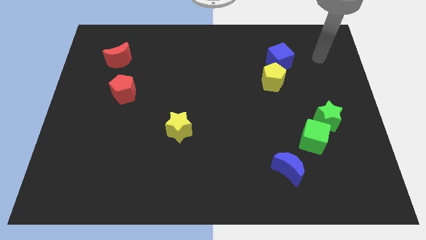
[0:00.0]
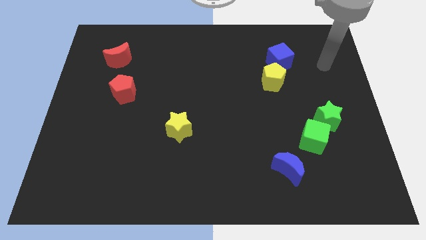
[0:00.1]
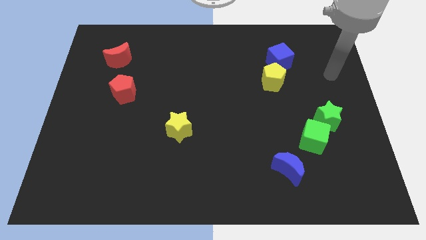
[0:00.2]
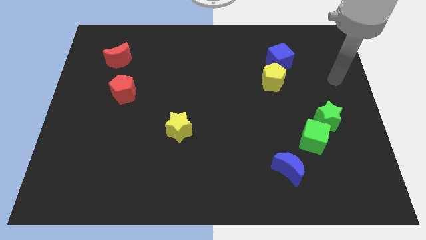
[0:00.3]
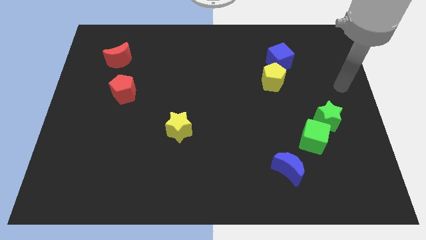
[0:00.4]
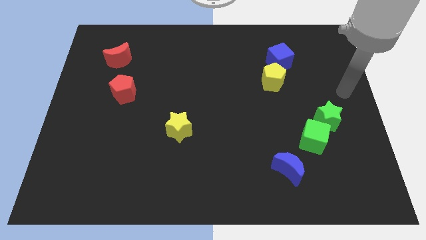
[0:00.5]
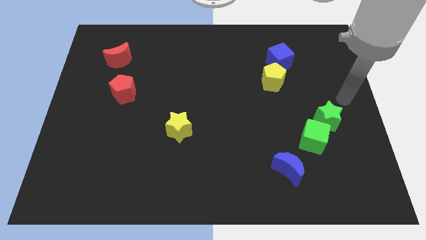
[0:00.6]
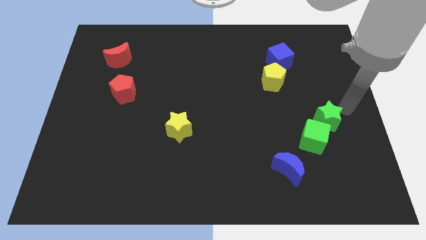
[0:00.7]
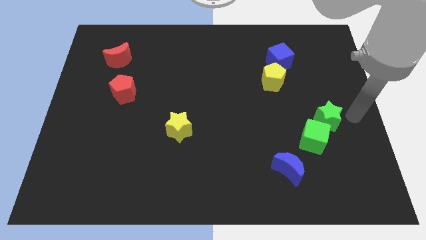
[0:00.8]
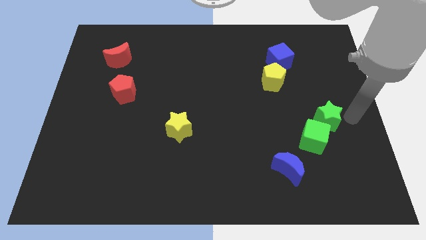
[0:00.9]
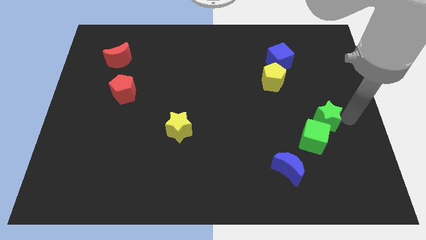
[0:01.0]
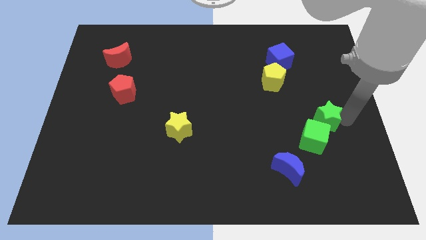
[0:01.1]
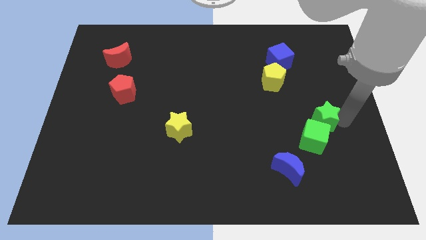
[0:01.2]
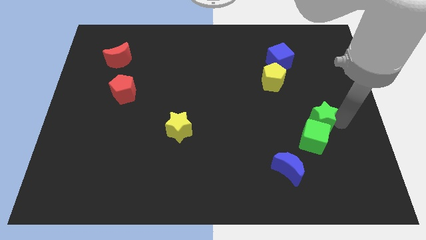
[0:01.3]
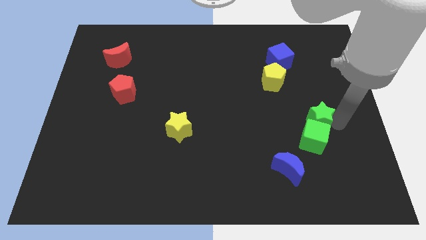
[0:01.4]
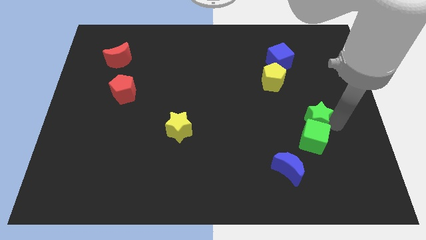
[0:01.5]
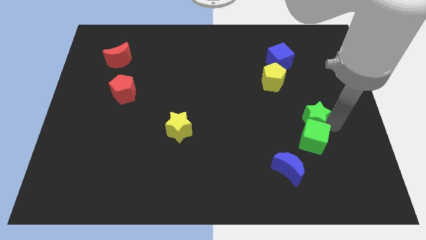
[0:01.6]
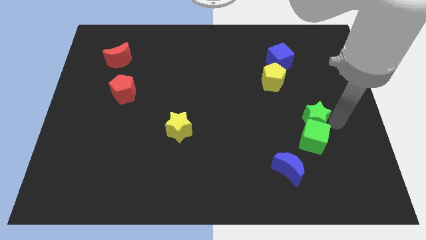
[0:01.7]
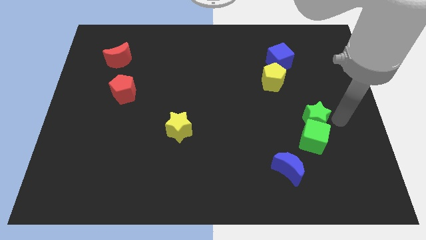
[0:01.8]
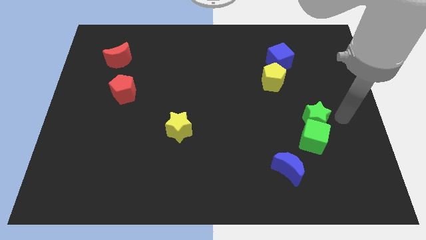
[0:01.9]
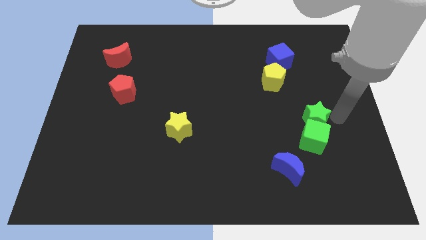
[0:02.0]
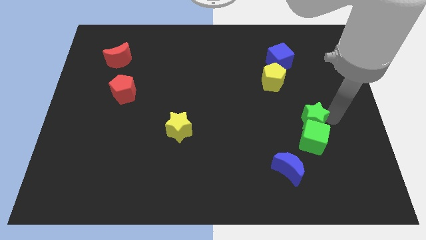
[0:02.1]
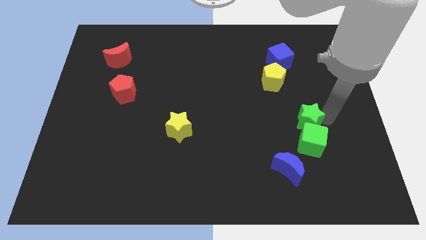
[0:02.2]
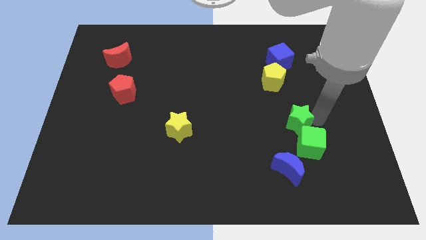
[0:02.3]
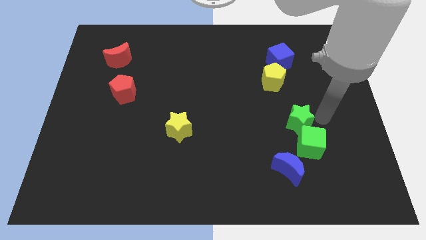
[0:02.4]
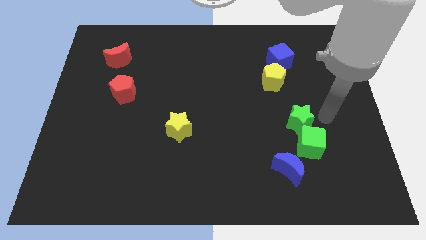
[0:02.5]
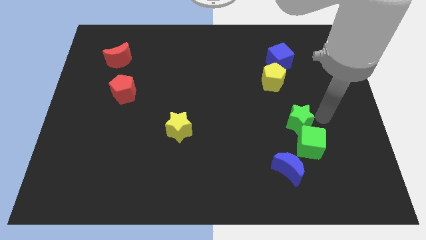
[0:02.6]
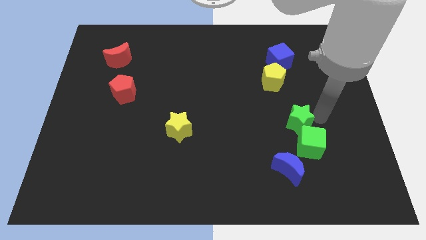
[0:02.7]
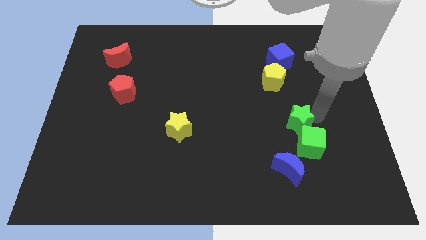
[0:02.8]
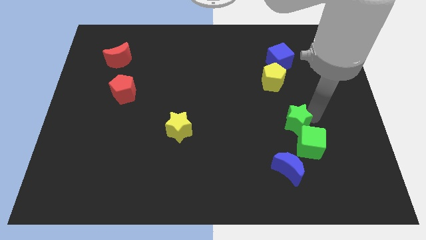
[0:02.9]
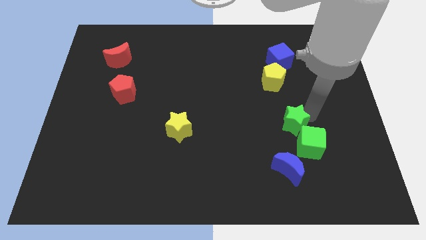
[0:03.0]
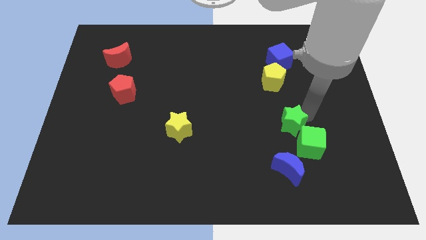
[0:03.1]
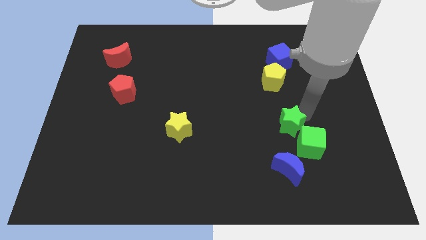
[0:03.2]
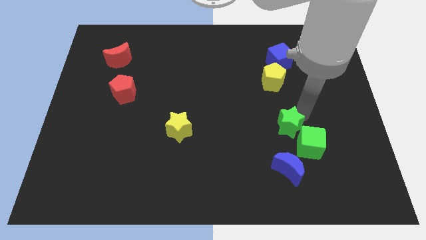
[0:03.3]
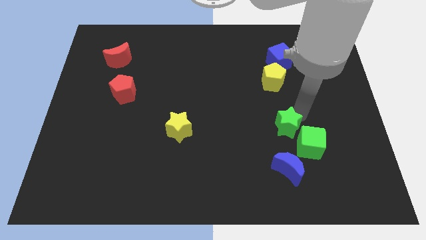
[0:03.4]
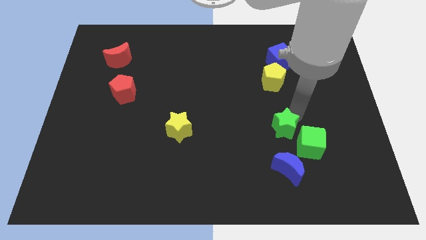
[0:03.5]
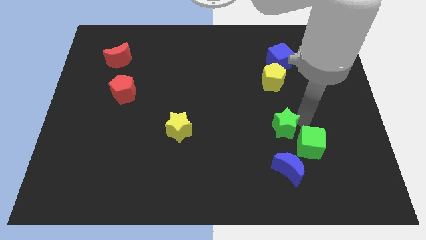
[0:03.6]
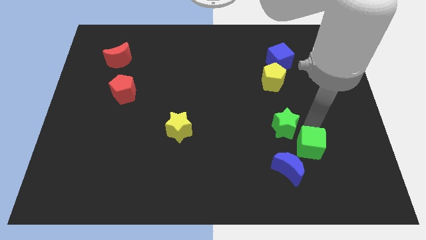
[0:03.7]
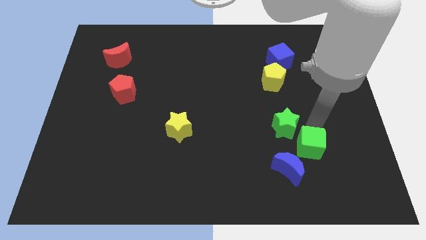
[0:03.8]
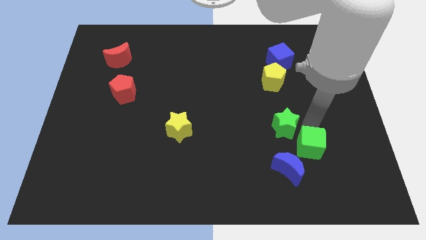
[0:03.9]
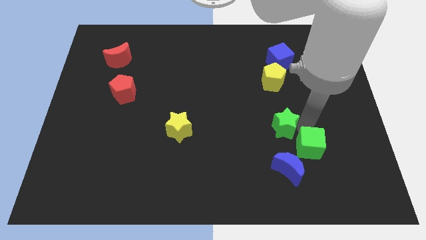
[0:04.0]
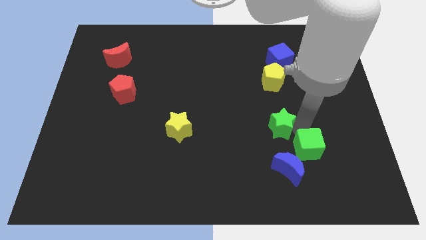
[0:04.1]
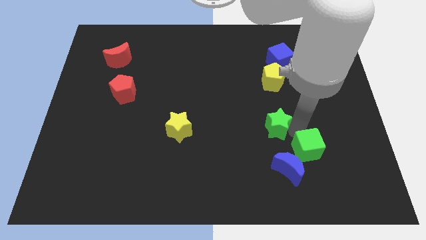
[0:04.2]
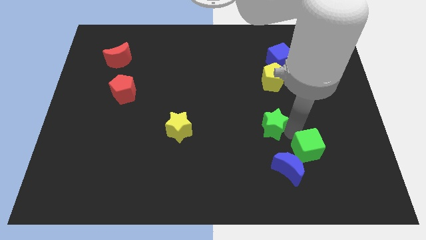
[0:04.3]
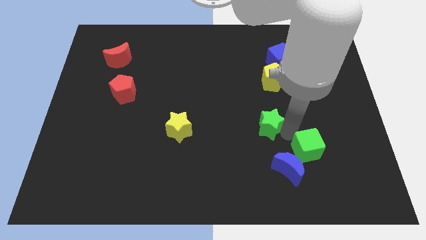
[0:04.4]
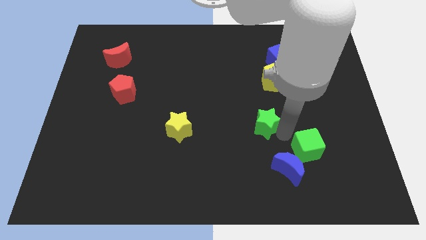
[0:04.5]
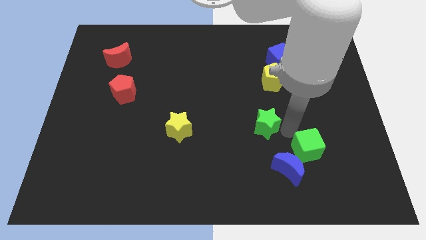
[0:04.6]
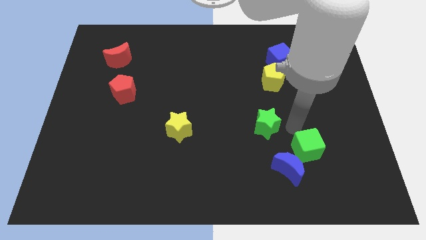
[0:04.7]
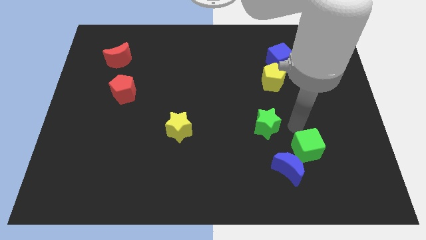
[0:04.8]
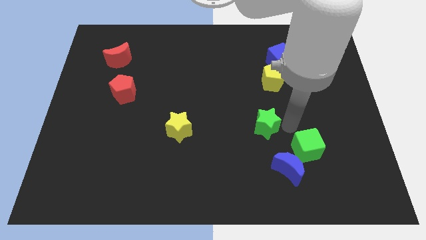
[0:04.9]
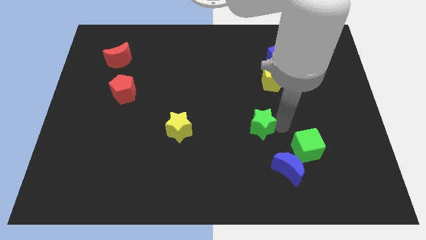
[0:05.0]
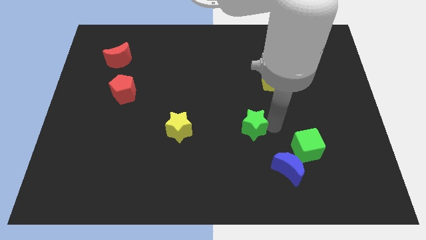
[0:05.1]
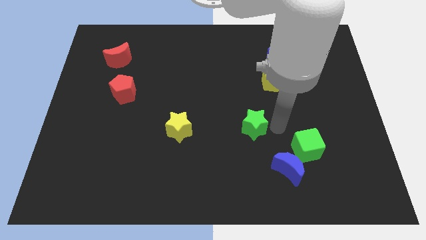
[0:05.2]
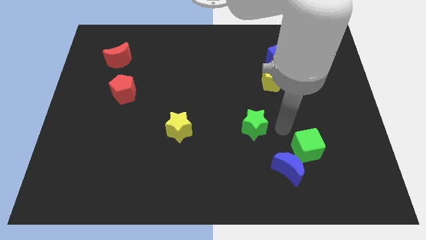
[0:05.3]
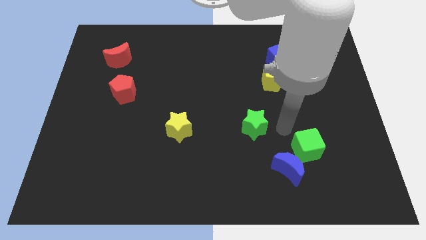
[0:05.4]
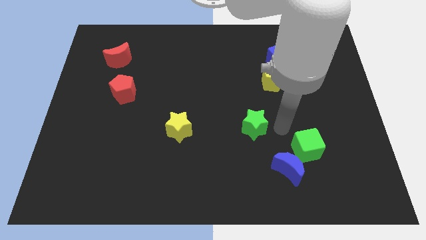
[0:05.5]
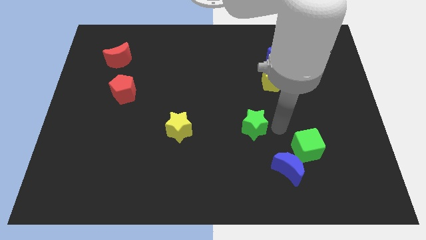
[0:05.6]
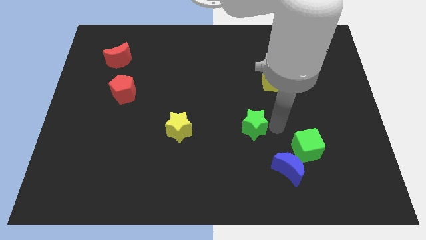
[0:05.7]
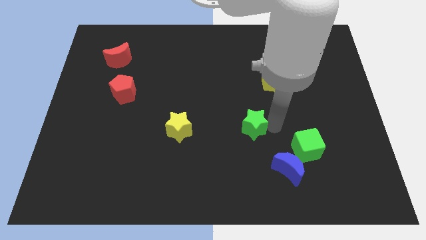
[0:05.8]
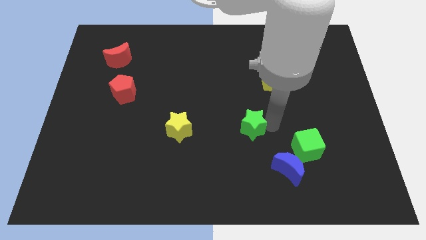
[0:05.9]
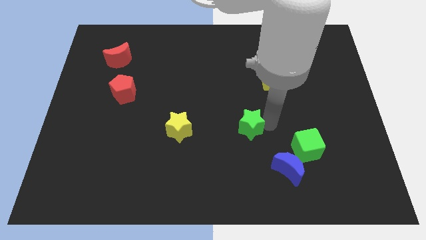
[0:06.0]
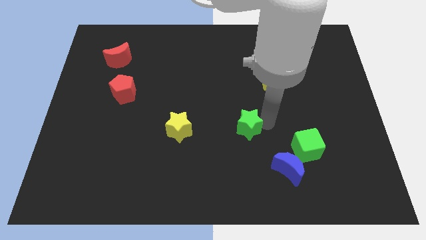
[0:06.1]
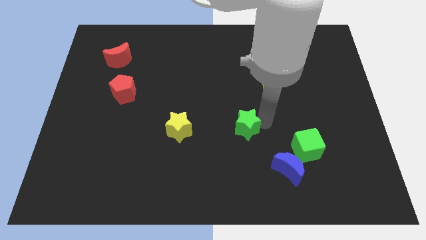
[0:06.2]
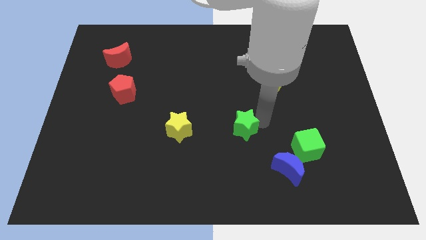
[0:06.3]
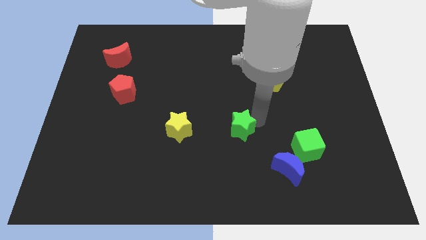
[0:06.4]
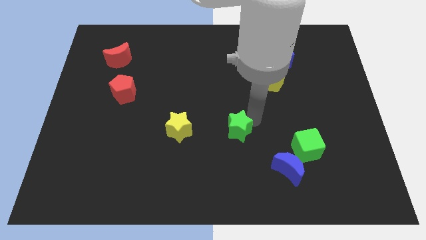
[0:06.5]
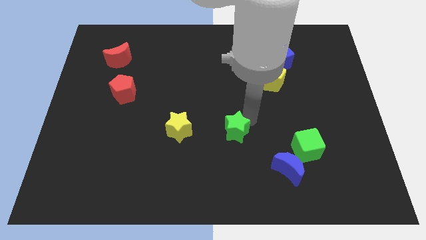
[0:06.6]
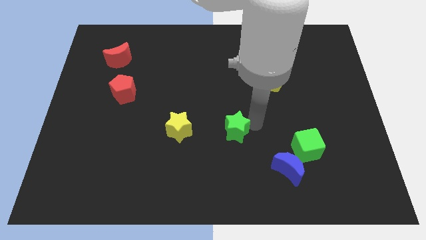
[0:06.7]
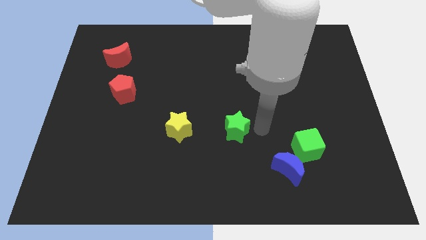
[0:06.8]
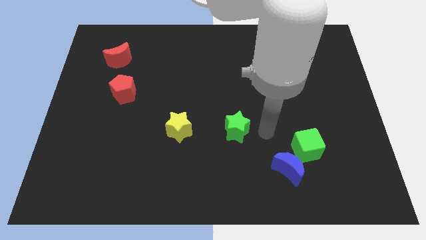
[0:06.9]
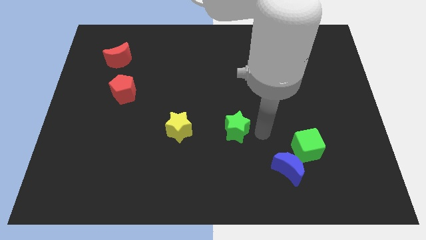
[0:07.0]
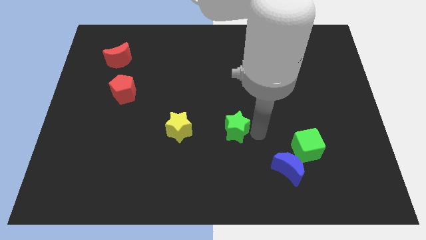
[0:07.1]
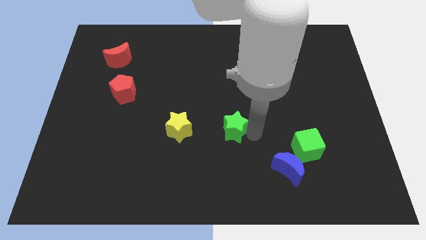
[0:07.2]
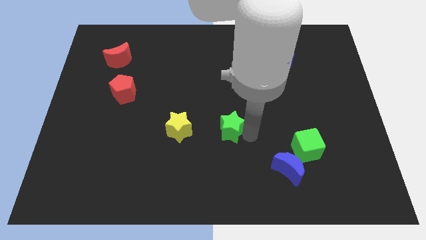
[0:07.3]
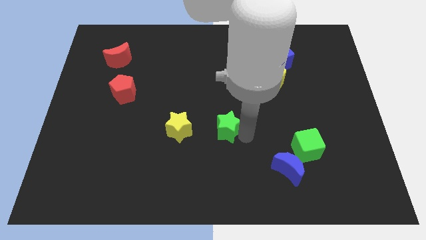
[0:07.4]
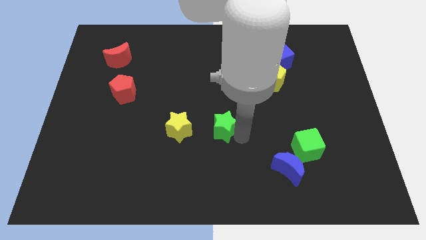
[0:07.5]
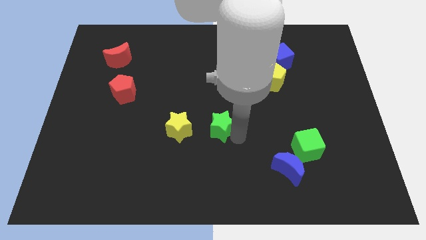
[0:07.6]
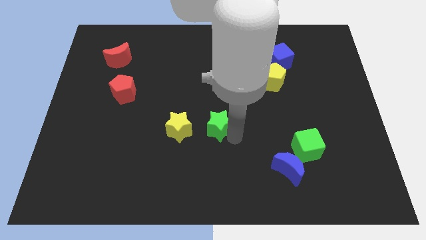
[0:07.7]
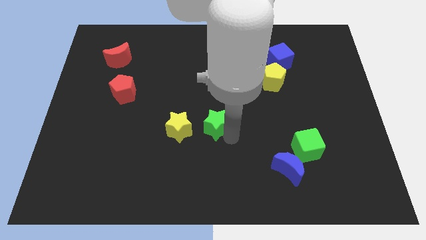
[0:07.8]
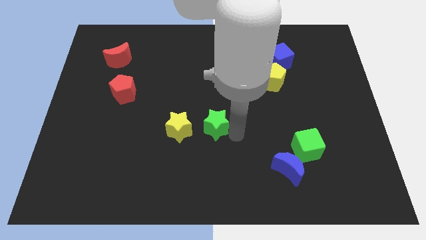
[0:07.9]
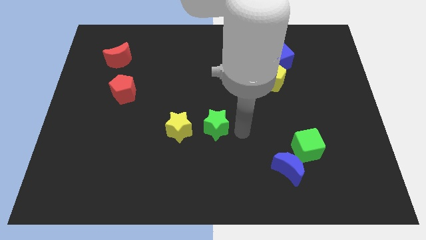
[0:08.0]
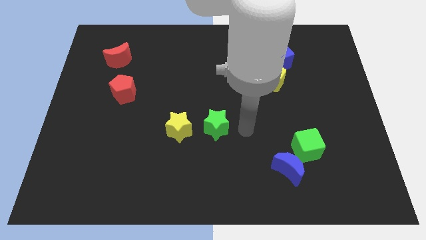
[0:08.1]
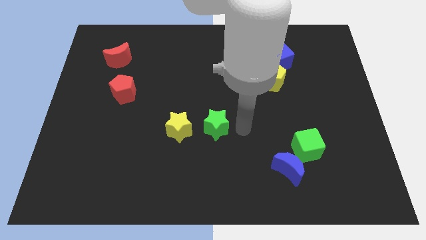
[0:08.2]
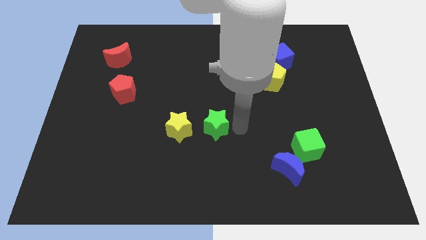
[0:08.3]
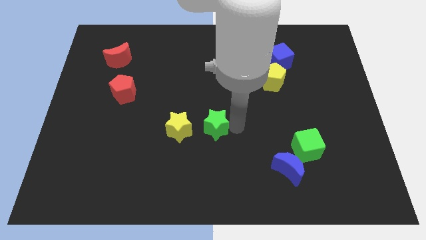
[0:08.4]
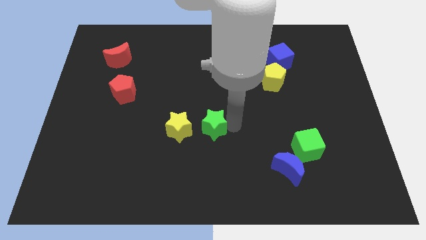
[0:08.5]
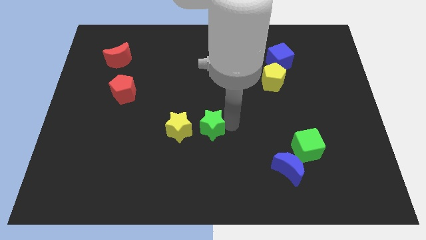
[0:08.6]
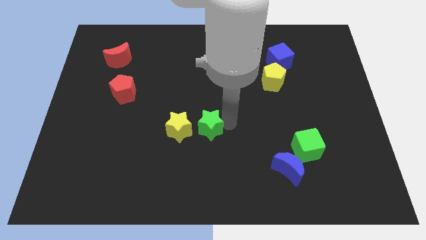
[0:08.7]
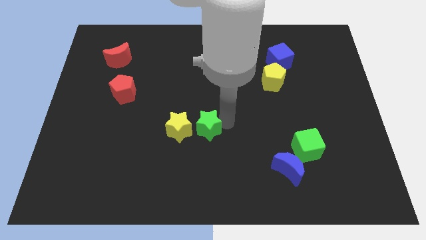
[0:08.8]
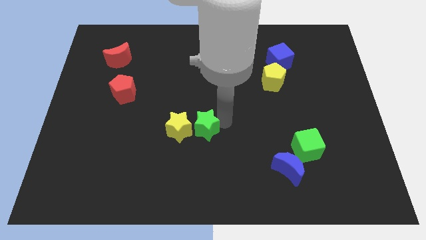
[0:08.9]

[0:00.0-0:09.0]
push the green star towards the yellow star
